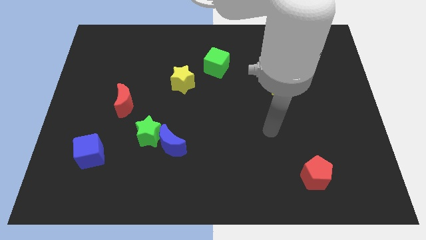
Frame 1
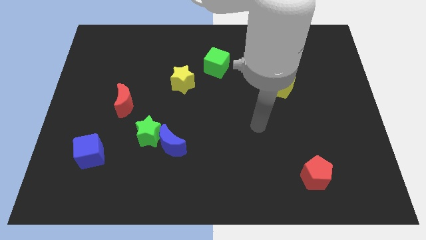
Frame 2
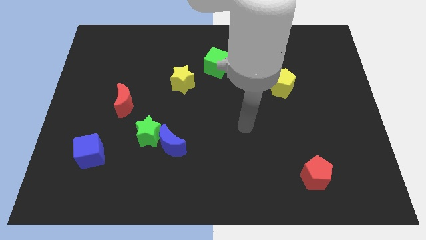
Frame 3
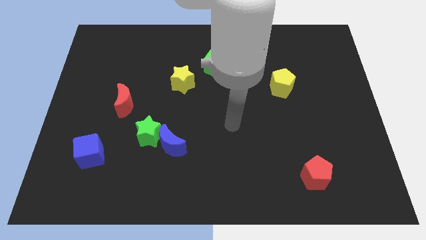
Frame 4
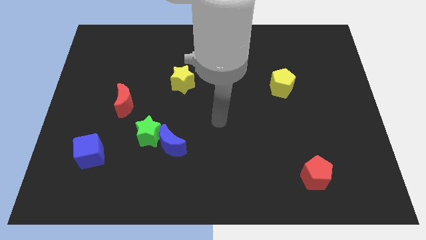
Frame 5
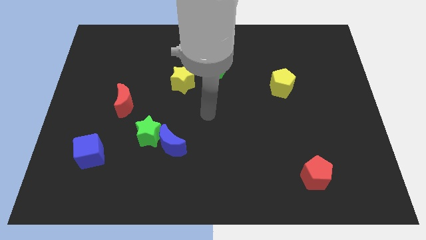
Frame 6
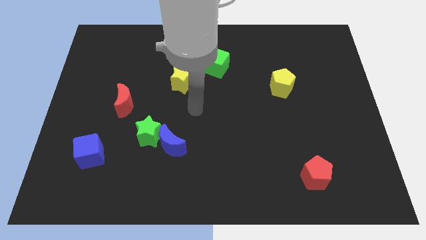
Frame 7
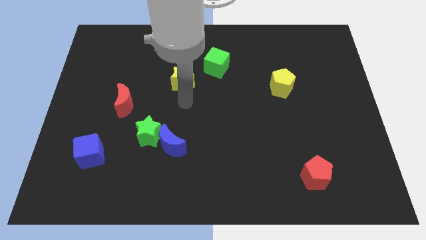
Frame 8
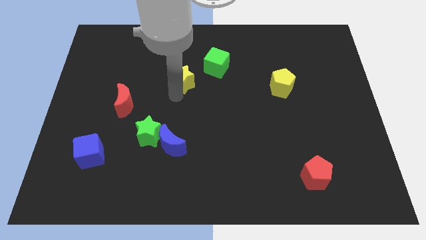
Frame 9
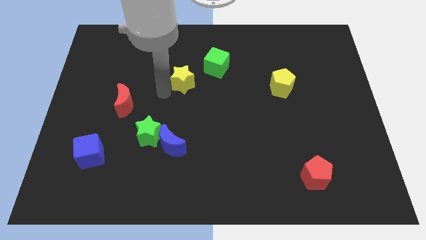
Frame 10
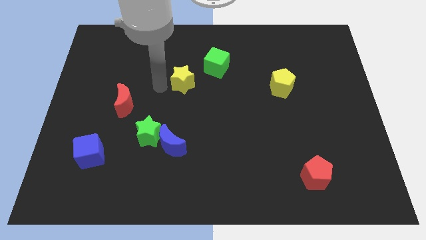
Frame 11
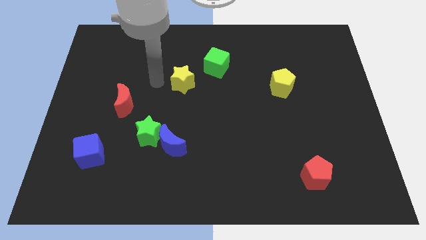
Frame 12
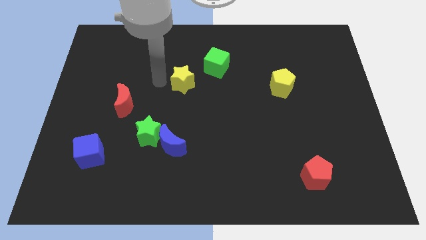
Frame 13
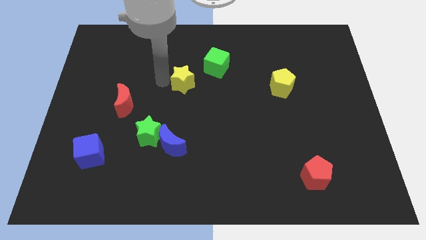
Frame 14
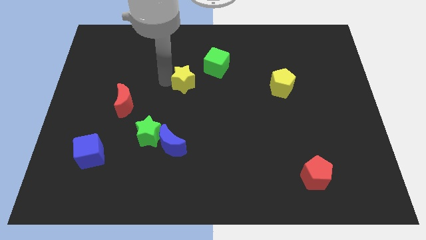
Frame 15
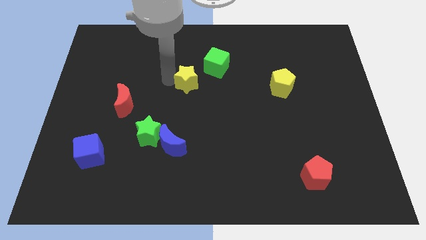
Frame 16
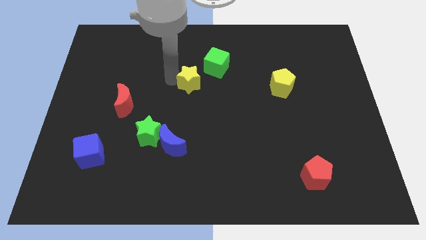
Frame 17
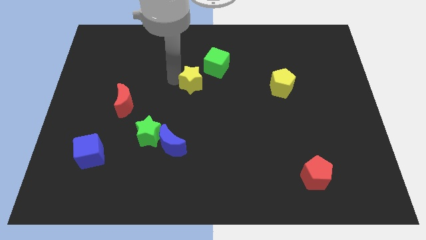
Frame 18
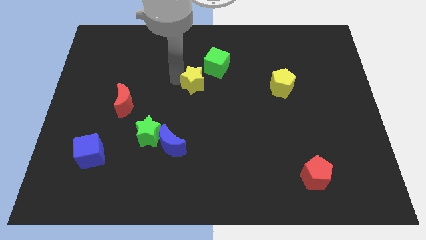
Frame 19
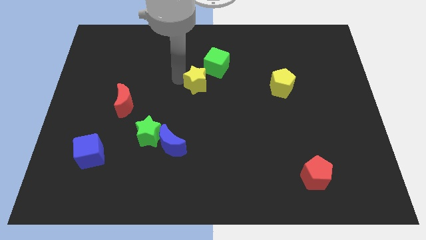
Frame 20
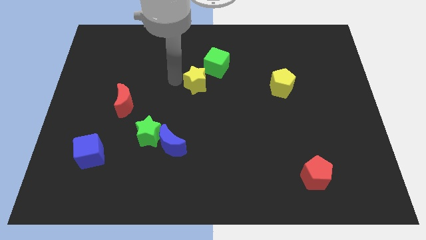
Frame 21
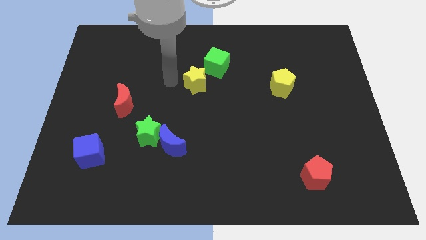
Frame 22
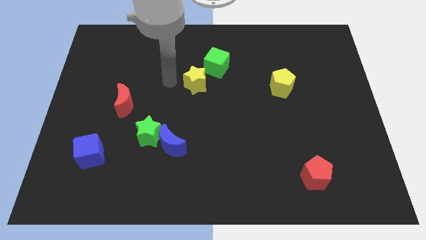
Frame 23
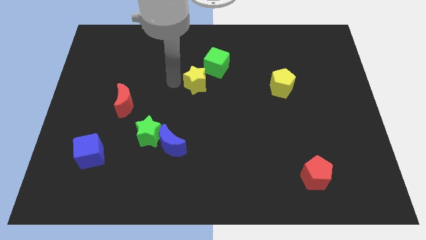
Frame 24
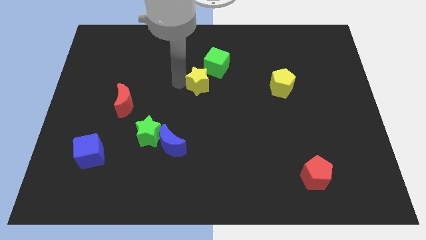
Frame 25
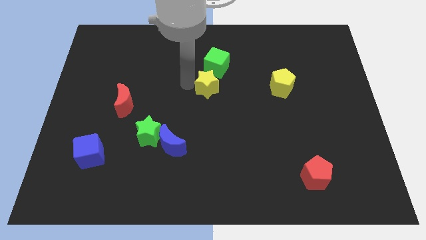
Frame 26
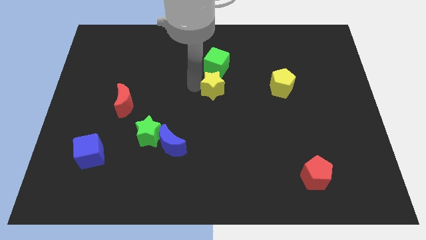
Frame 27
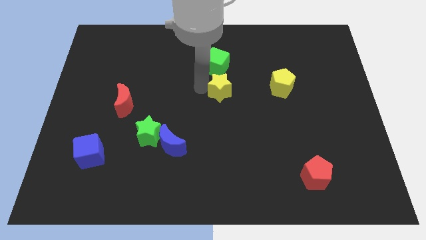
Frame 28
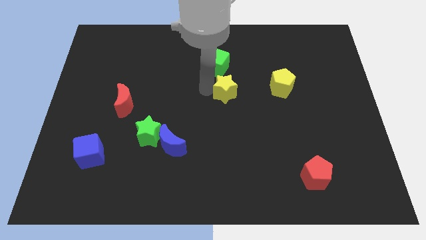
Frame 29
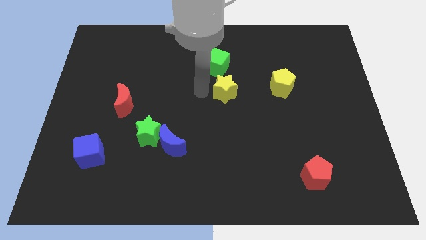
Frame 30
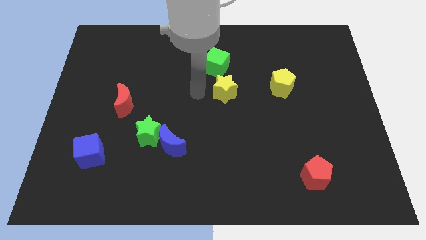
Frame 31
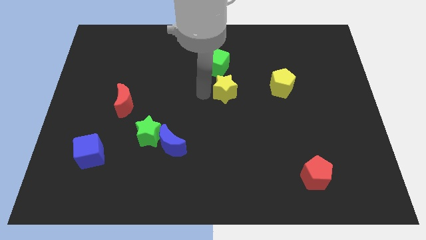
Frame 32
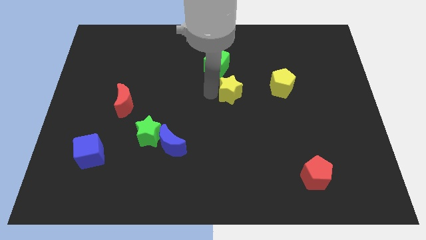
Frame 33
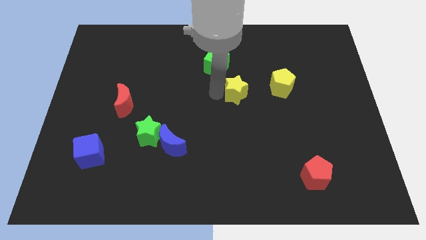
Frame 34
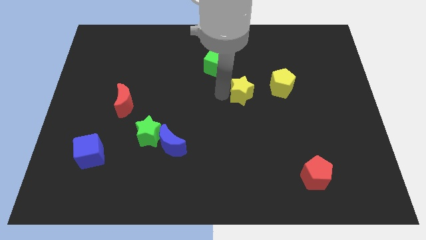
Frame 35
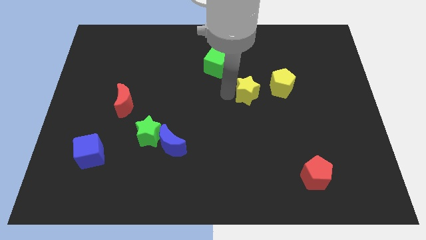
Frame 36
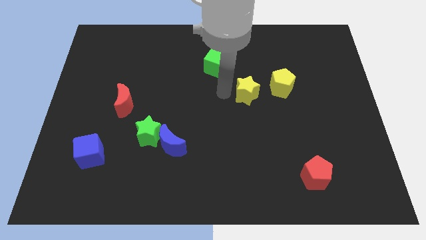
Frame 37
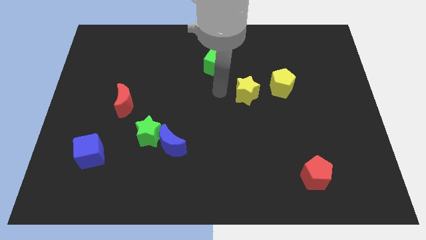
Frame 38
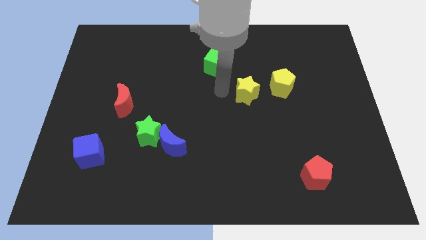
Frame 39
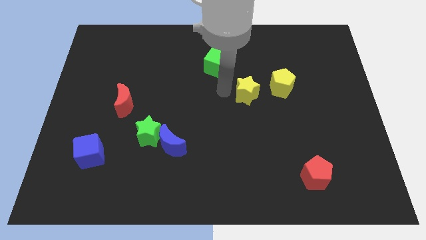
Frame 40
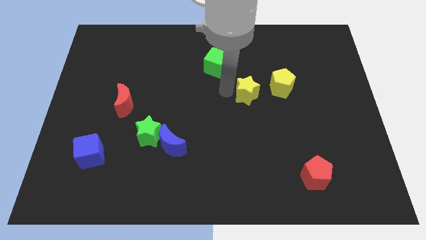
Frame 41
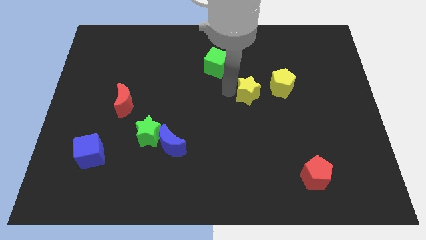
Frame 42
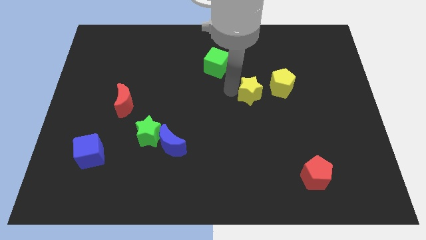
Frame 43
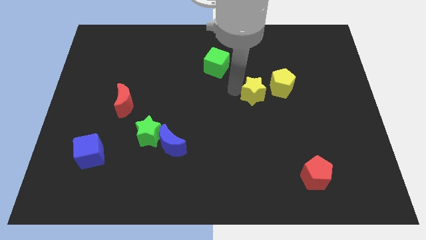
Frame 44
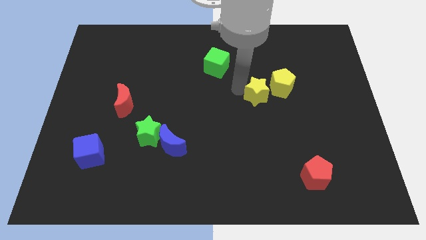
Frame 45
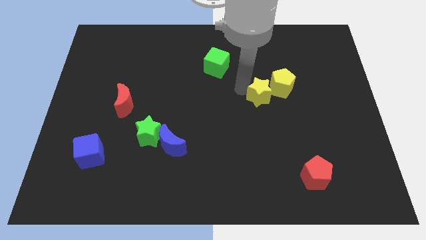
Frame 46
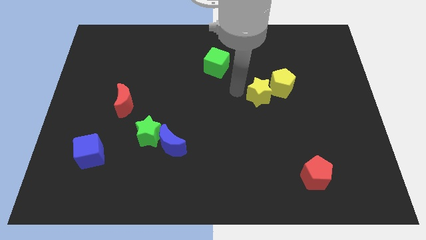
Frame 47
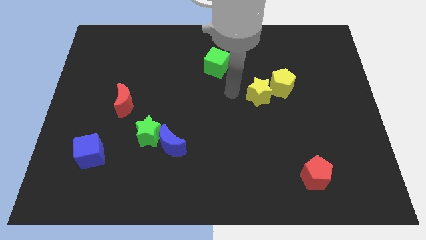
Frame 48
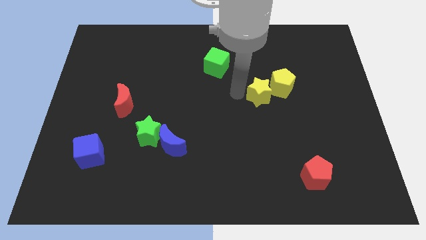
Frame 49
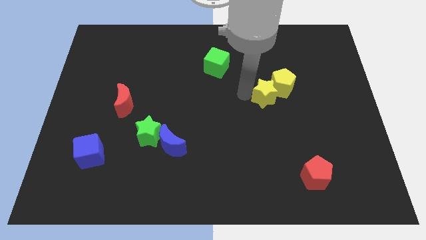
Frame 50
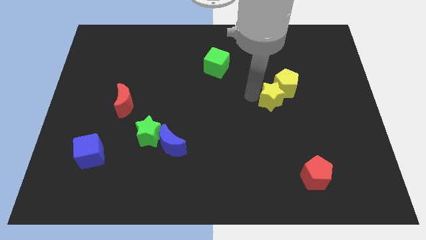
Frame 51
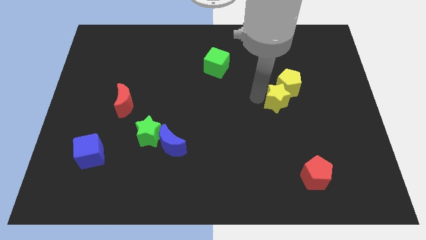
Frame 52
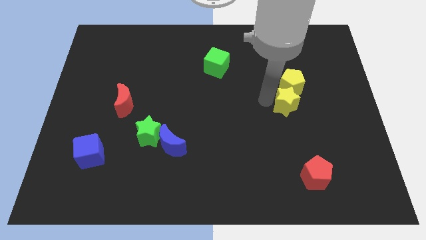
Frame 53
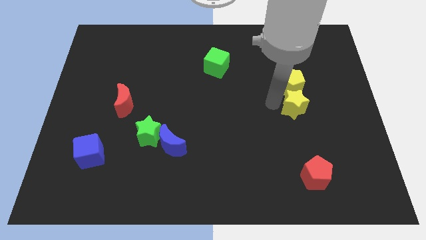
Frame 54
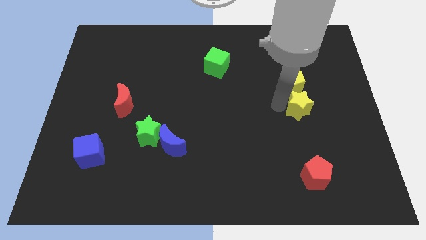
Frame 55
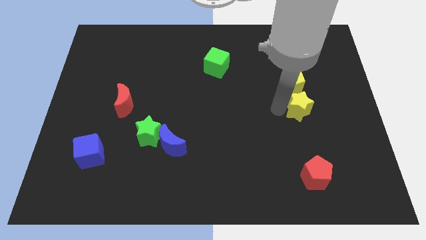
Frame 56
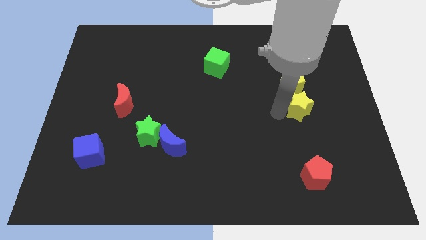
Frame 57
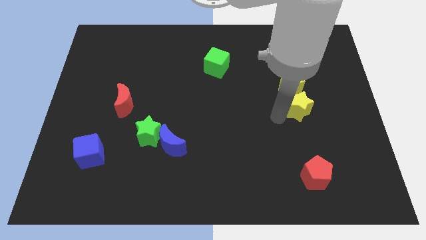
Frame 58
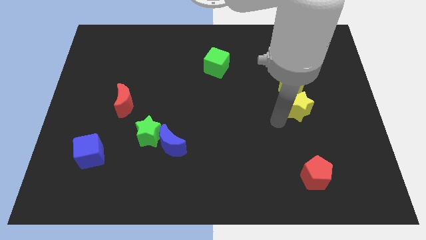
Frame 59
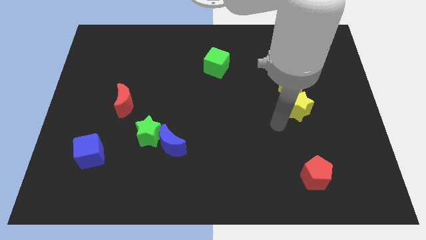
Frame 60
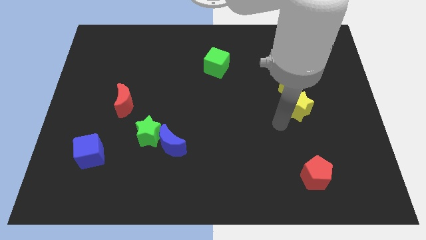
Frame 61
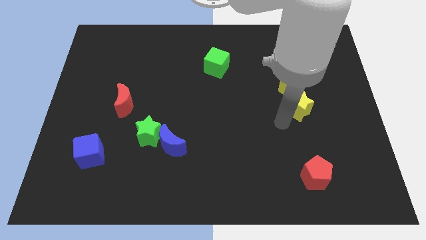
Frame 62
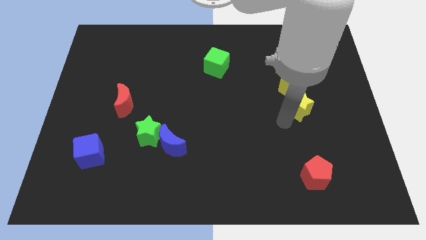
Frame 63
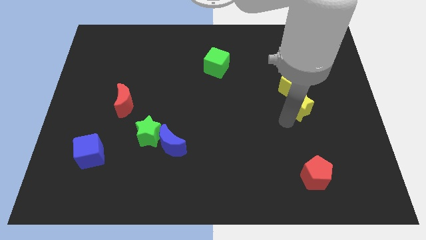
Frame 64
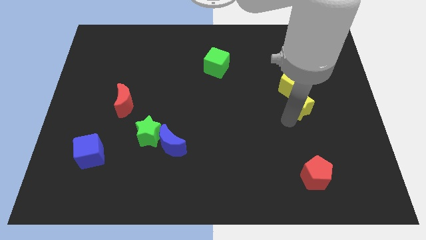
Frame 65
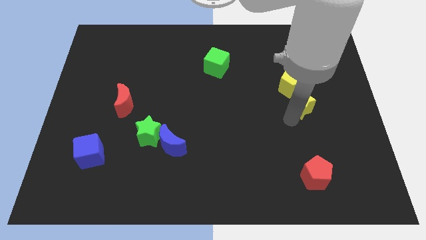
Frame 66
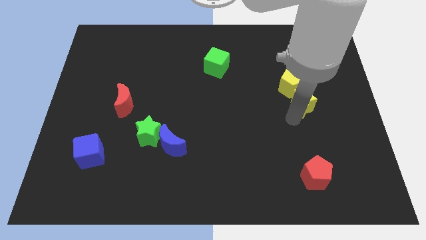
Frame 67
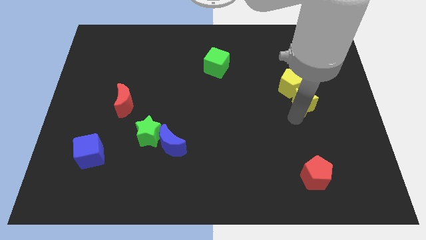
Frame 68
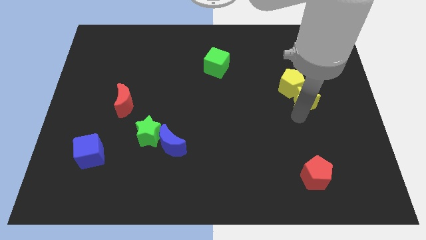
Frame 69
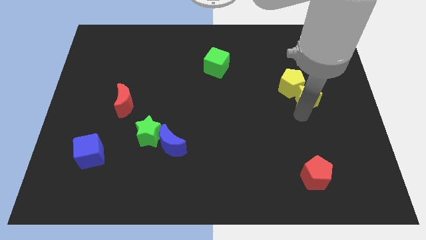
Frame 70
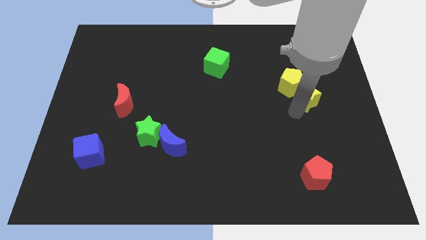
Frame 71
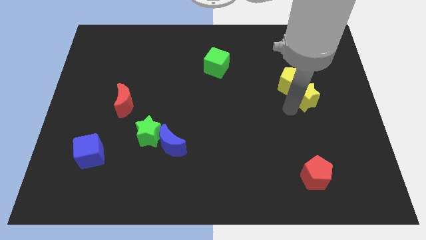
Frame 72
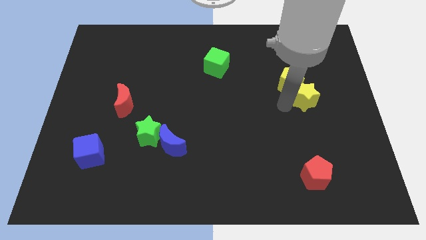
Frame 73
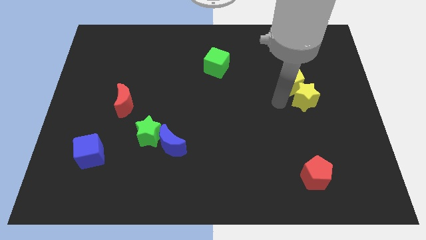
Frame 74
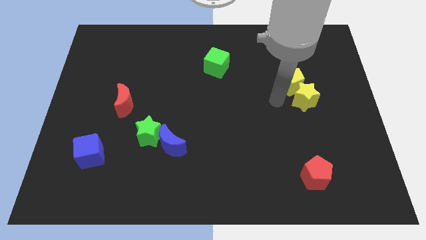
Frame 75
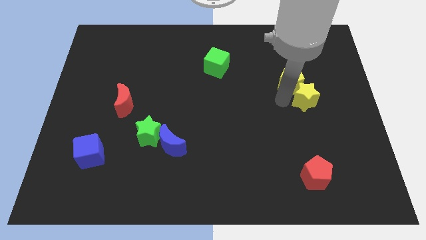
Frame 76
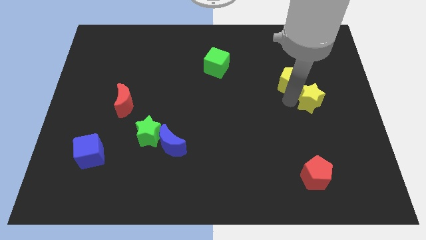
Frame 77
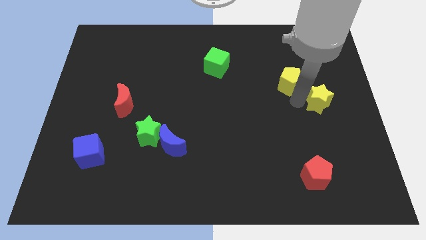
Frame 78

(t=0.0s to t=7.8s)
slide the yellow star to the right side of the board
